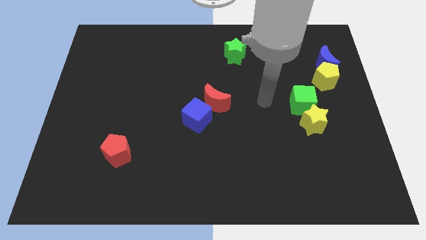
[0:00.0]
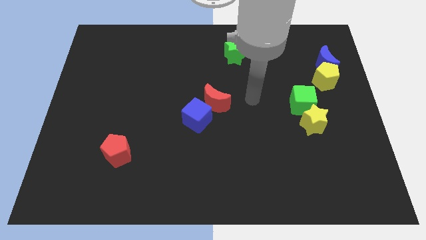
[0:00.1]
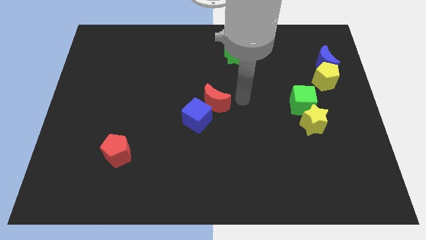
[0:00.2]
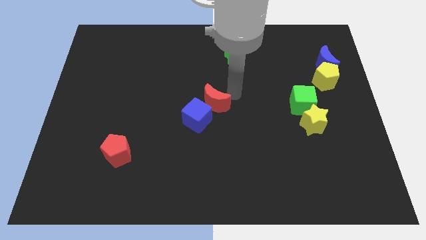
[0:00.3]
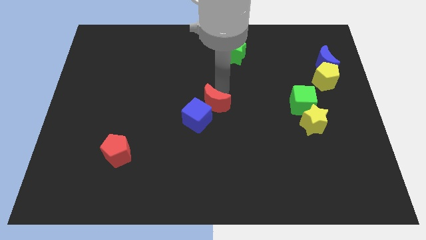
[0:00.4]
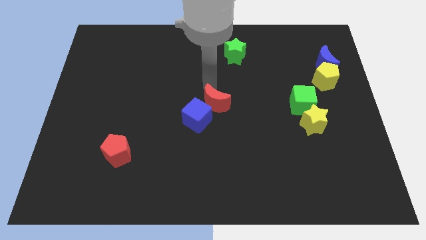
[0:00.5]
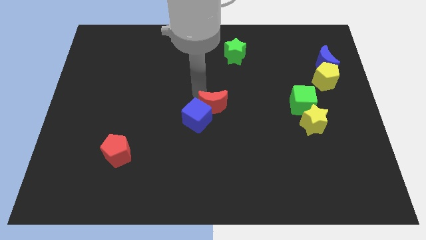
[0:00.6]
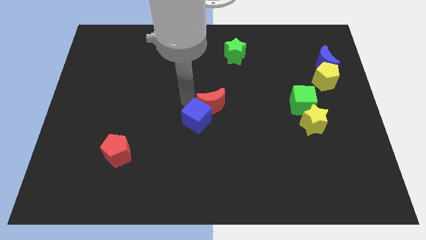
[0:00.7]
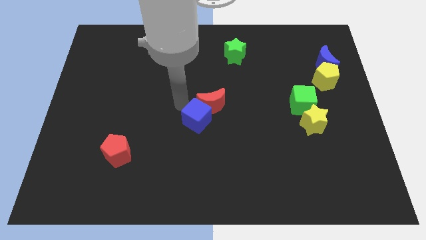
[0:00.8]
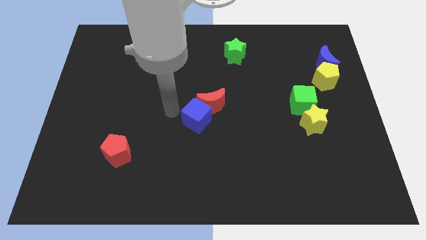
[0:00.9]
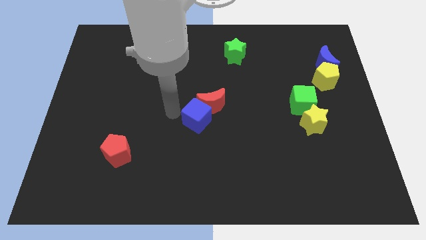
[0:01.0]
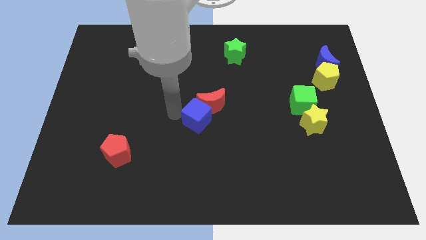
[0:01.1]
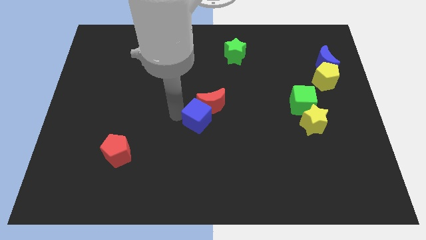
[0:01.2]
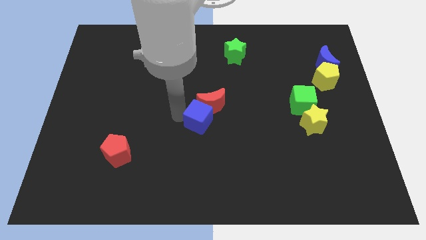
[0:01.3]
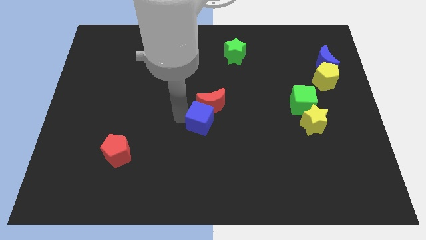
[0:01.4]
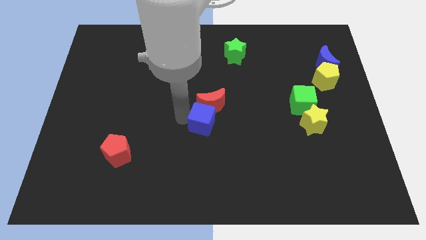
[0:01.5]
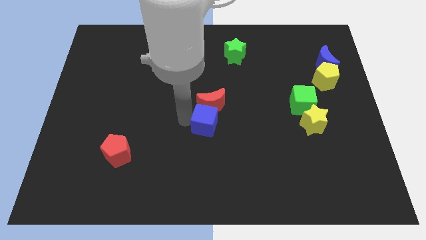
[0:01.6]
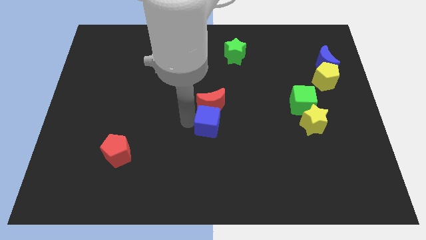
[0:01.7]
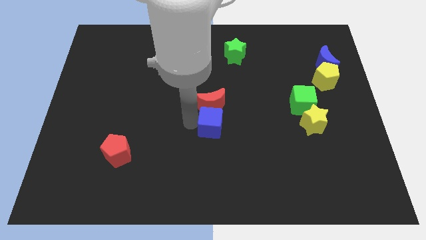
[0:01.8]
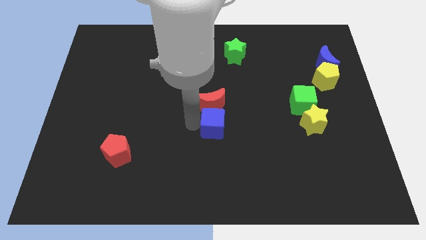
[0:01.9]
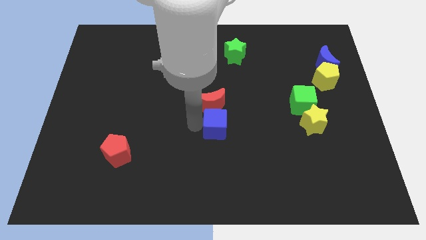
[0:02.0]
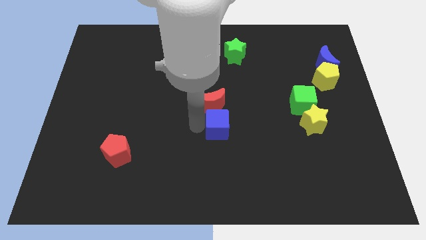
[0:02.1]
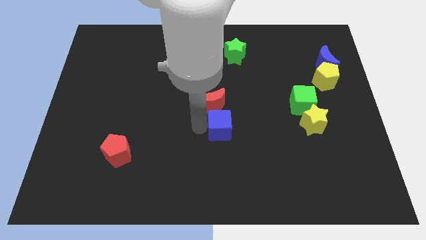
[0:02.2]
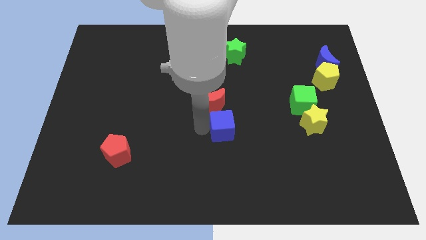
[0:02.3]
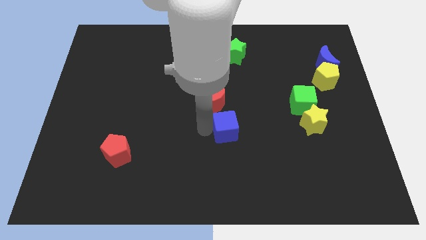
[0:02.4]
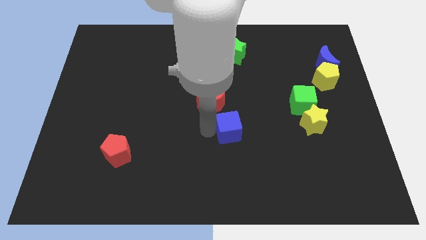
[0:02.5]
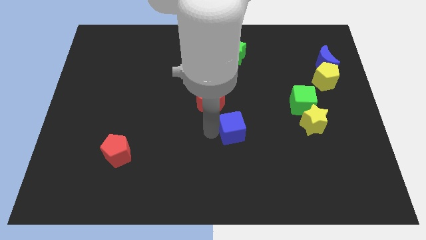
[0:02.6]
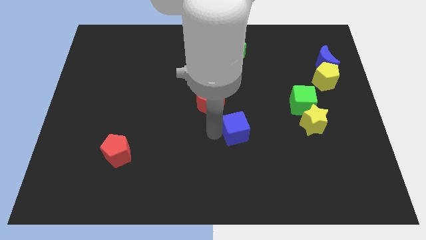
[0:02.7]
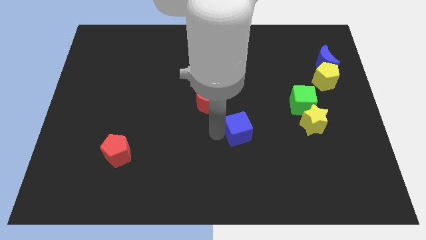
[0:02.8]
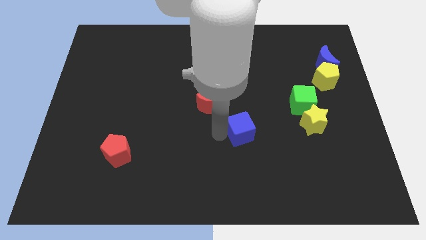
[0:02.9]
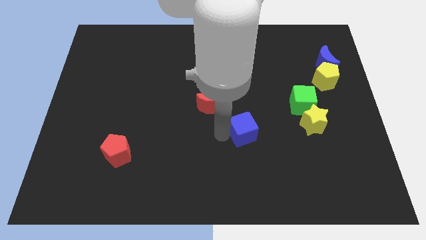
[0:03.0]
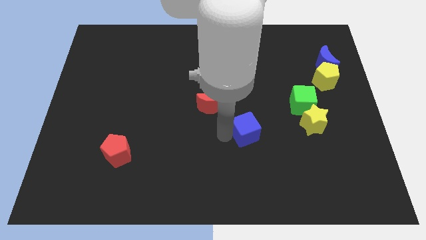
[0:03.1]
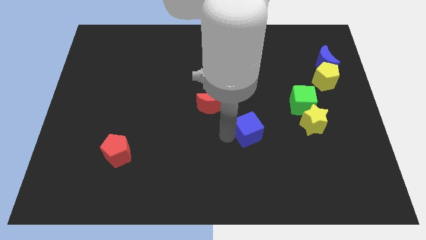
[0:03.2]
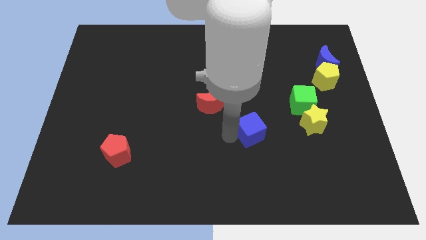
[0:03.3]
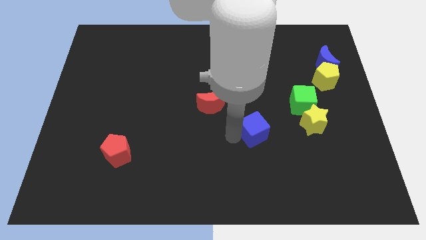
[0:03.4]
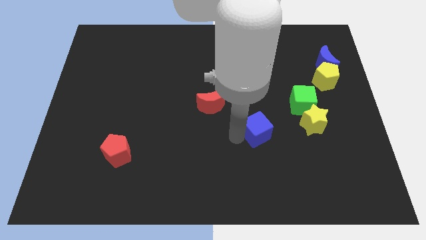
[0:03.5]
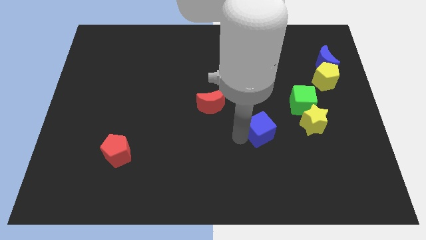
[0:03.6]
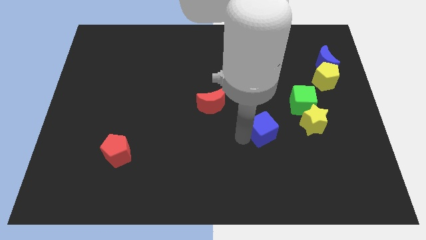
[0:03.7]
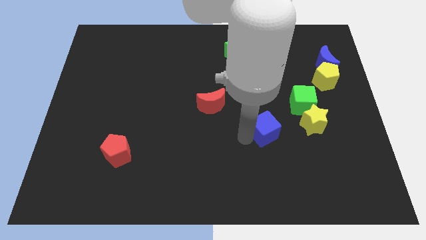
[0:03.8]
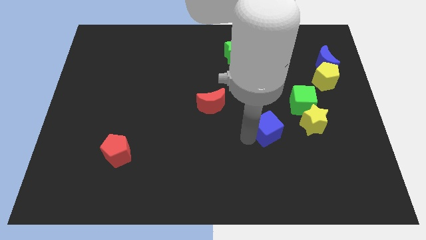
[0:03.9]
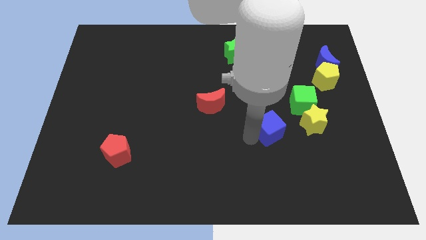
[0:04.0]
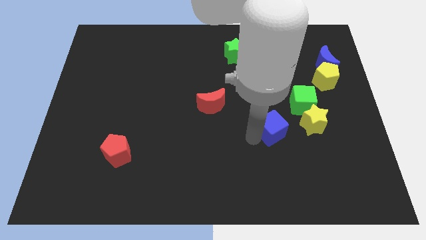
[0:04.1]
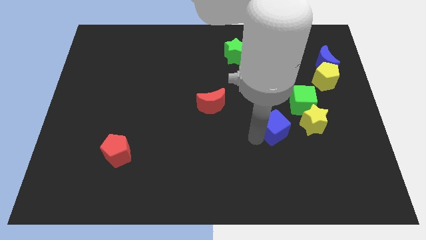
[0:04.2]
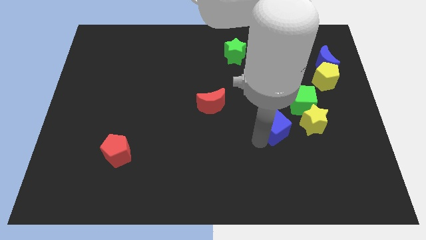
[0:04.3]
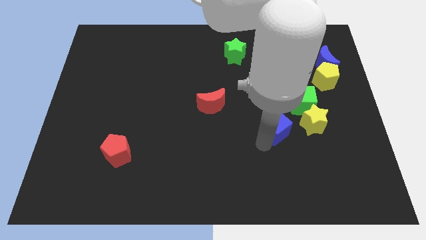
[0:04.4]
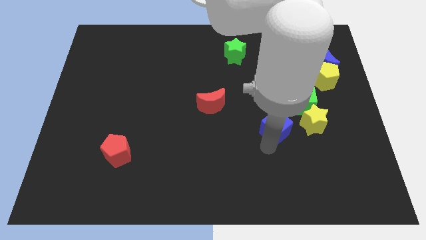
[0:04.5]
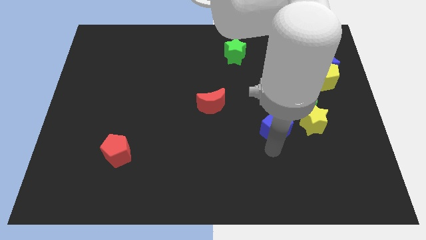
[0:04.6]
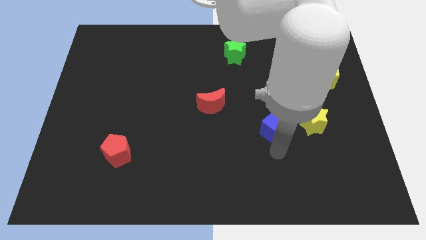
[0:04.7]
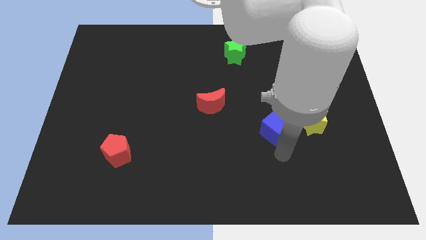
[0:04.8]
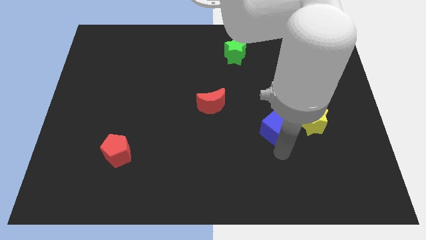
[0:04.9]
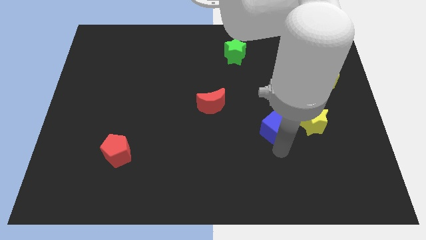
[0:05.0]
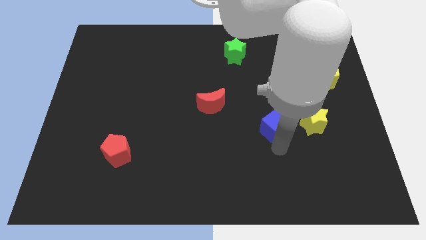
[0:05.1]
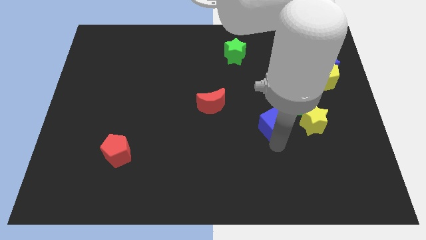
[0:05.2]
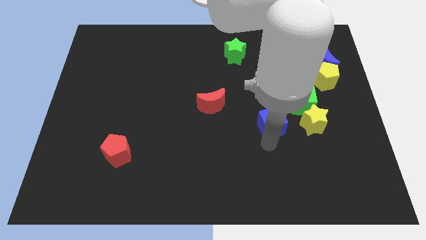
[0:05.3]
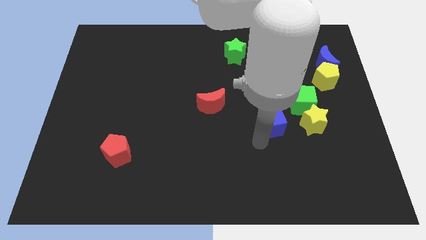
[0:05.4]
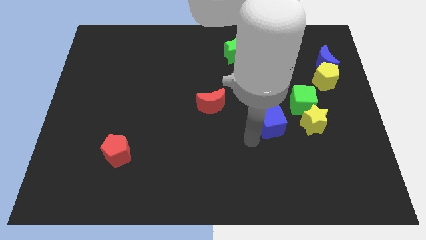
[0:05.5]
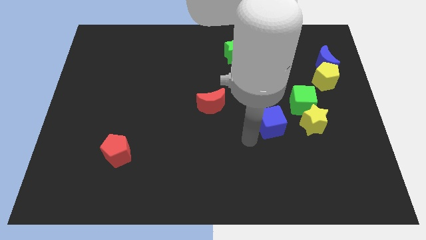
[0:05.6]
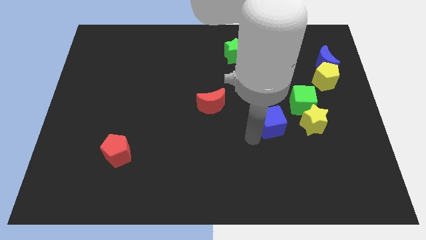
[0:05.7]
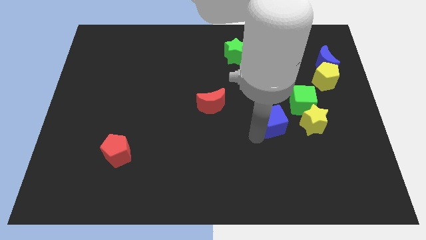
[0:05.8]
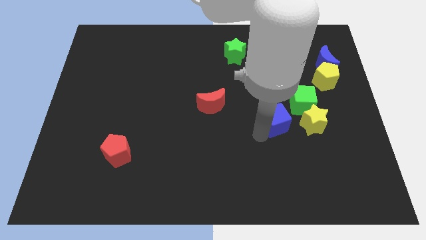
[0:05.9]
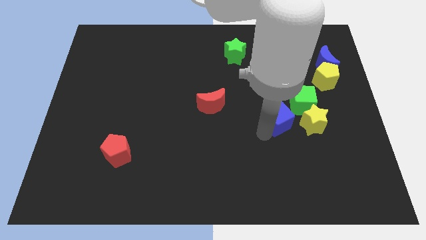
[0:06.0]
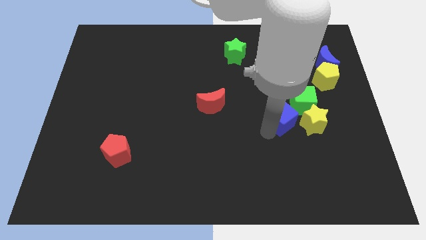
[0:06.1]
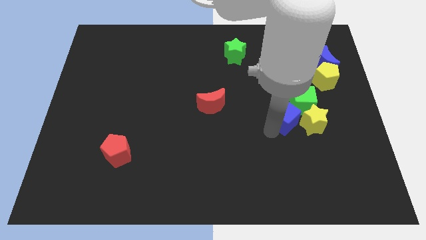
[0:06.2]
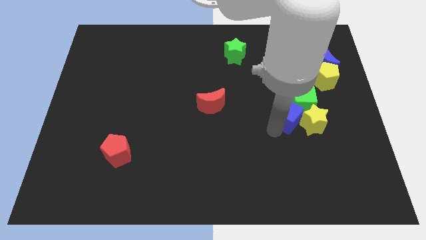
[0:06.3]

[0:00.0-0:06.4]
push the blue cube to the green cube

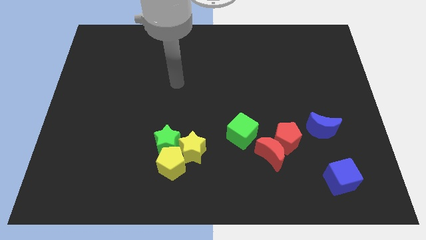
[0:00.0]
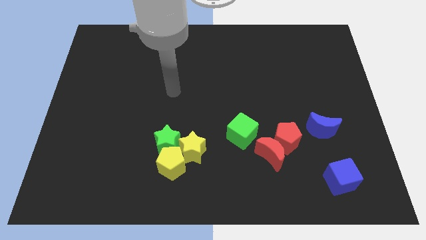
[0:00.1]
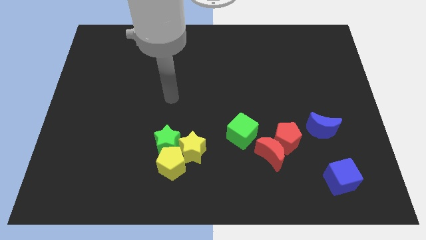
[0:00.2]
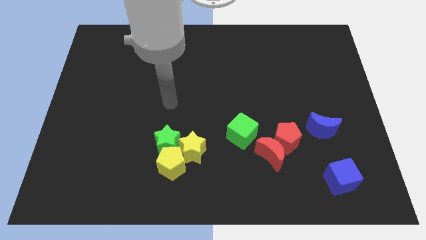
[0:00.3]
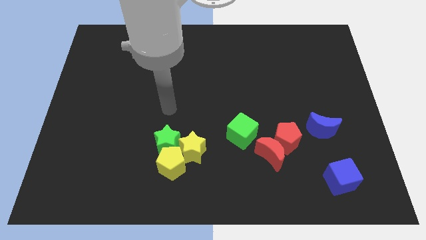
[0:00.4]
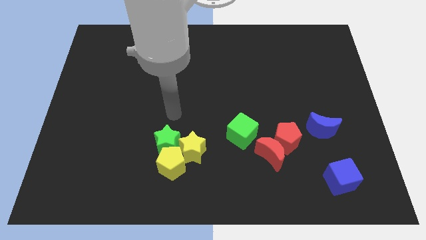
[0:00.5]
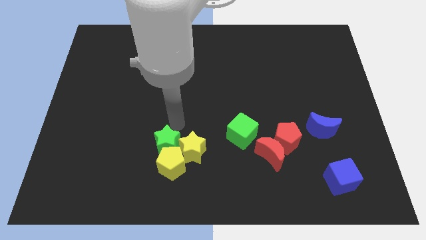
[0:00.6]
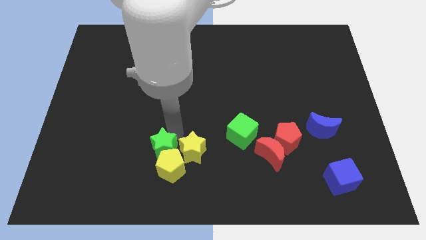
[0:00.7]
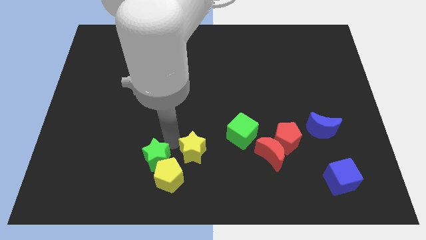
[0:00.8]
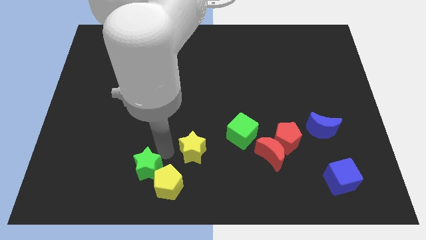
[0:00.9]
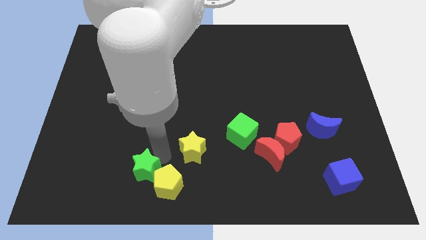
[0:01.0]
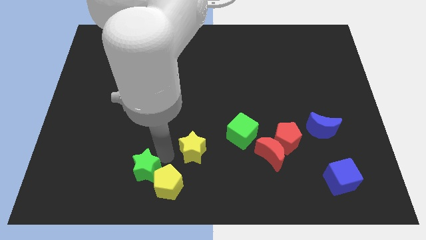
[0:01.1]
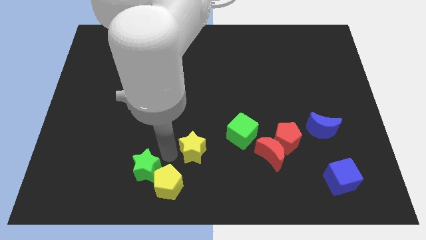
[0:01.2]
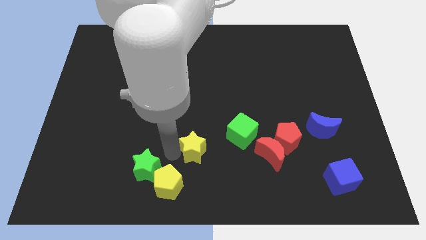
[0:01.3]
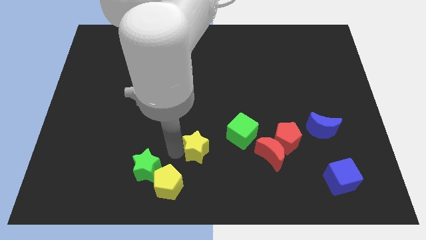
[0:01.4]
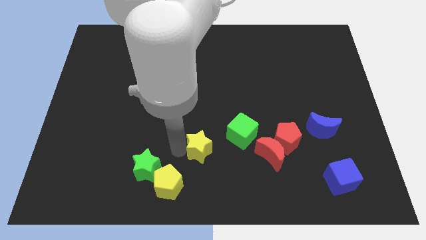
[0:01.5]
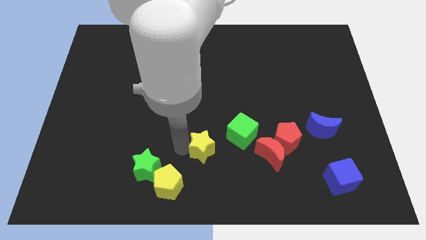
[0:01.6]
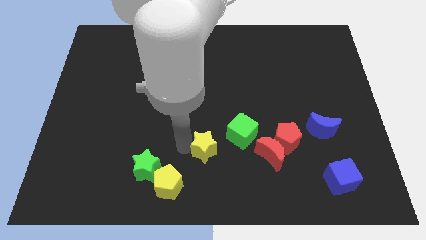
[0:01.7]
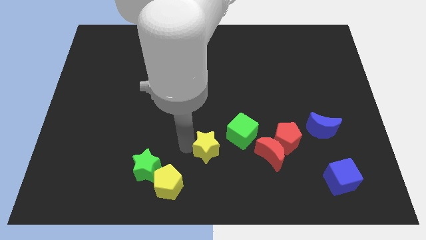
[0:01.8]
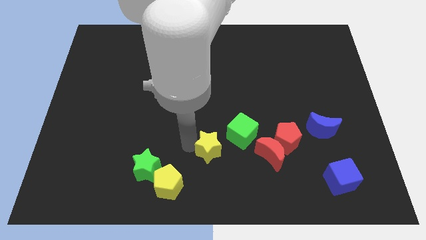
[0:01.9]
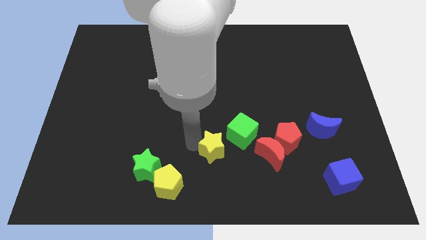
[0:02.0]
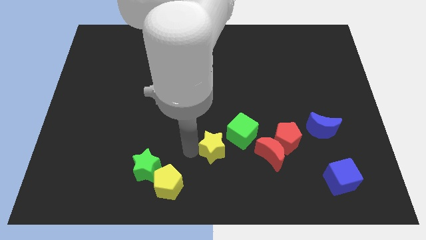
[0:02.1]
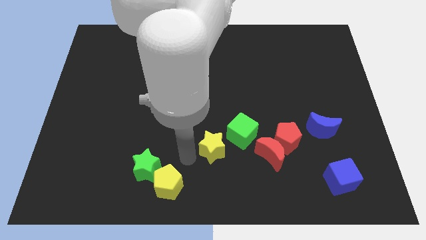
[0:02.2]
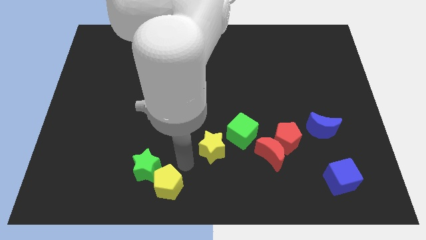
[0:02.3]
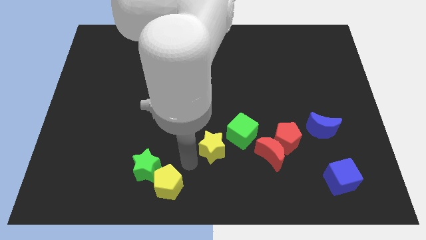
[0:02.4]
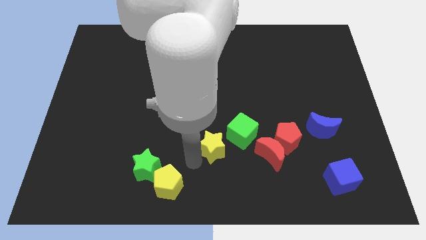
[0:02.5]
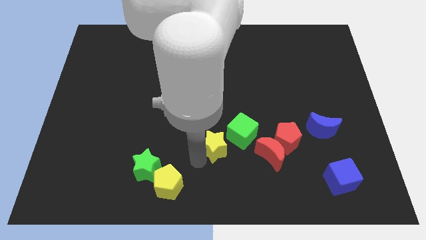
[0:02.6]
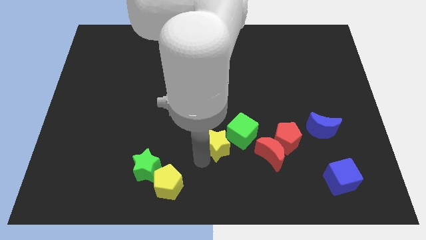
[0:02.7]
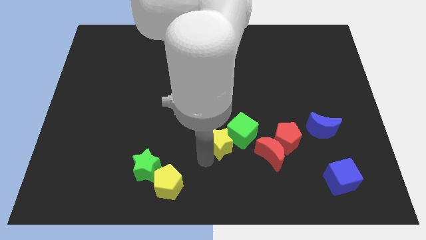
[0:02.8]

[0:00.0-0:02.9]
slide the yellow star next to the green cube
